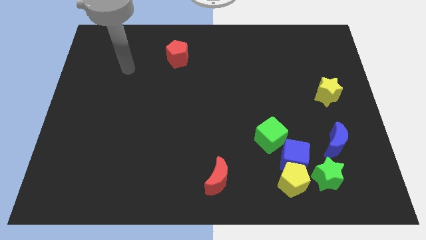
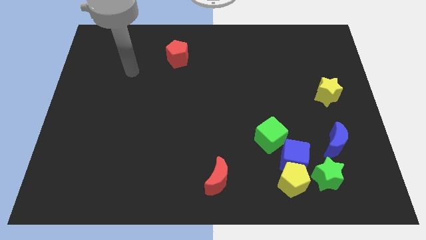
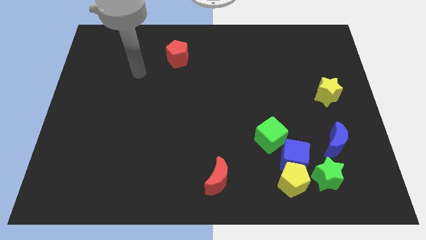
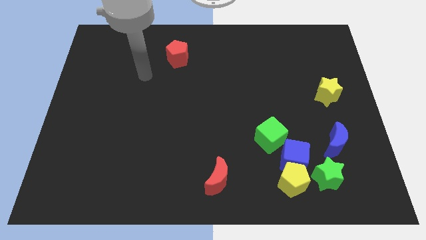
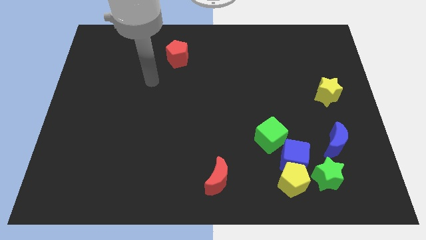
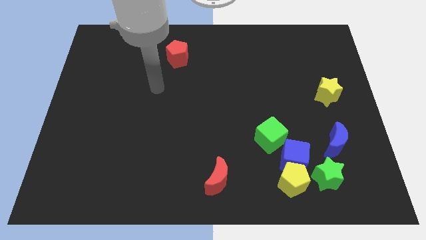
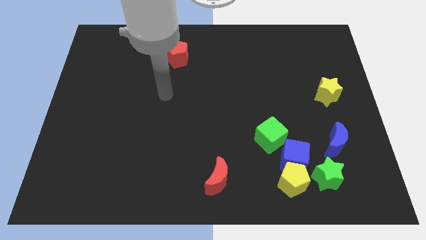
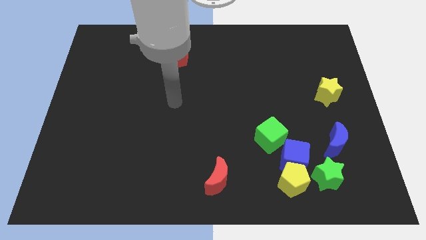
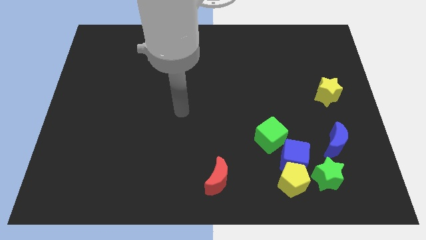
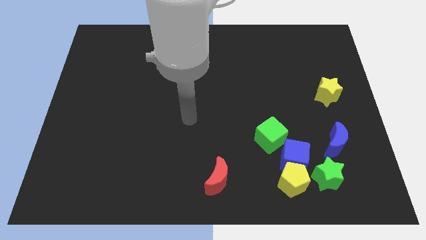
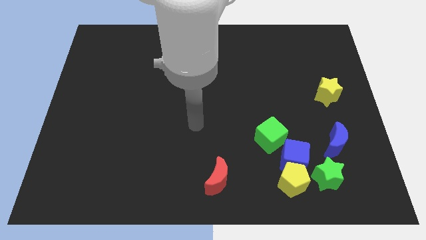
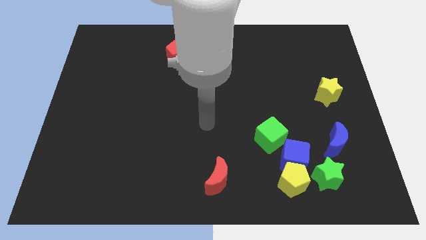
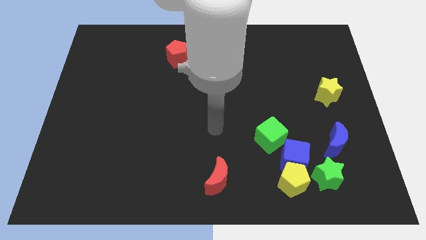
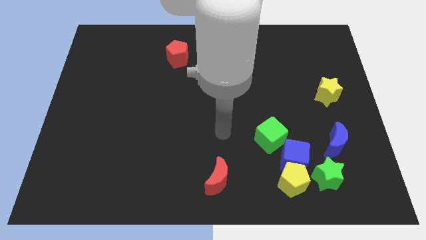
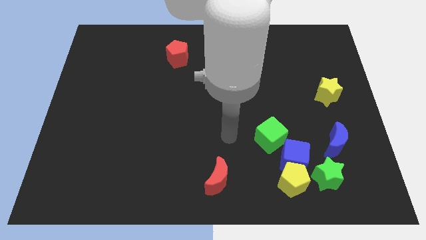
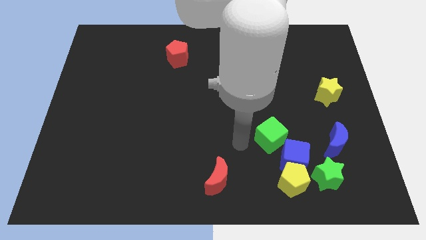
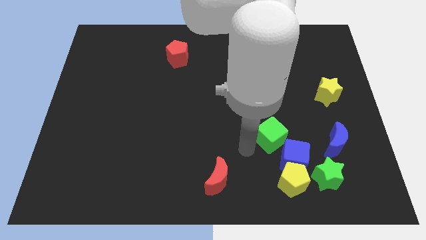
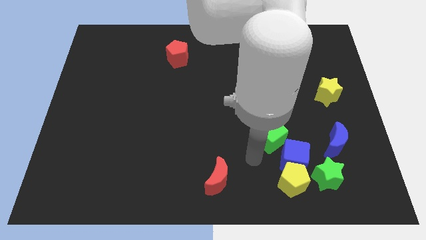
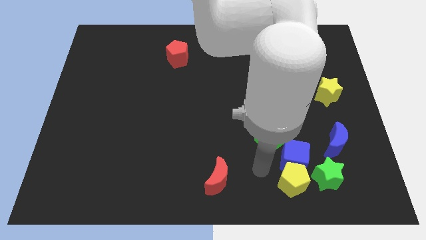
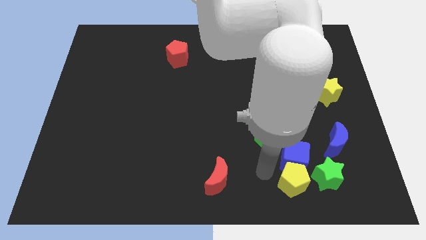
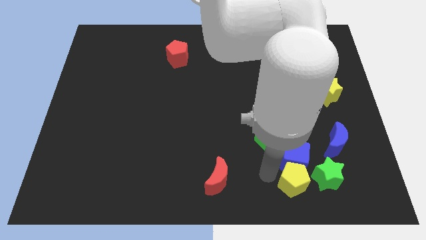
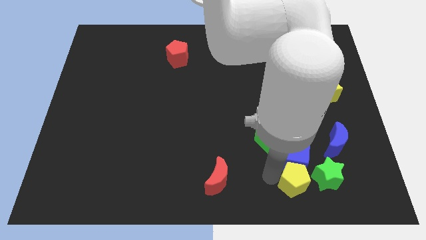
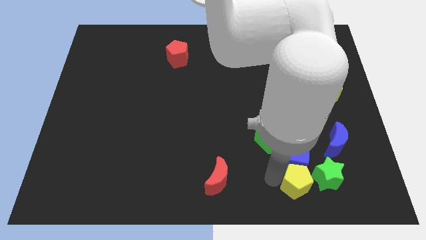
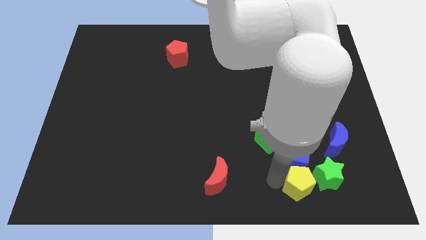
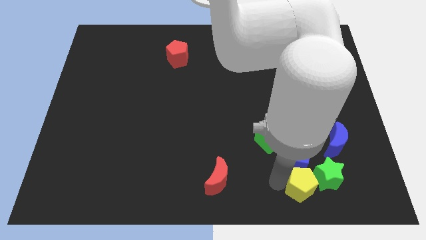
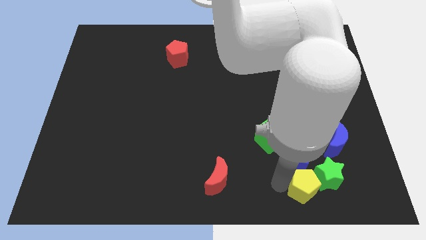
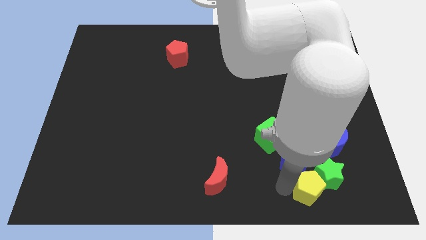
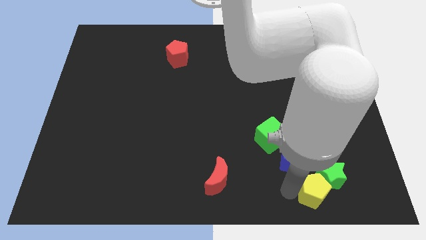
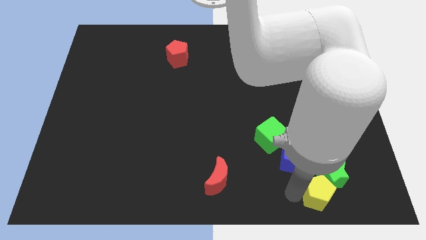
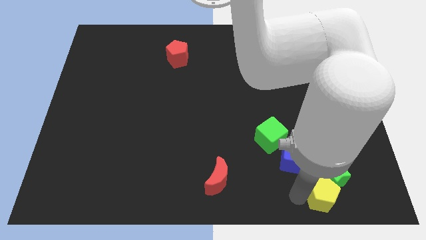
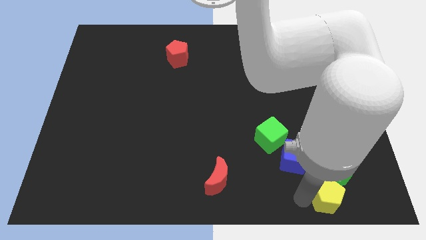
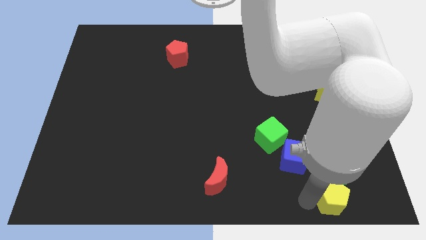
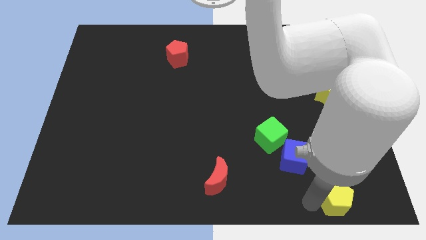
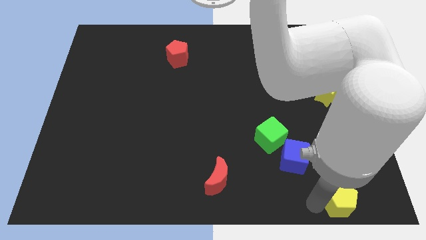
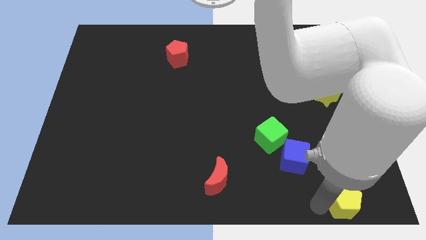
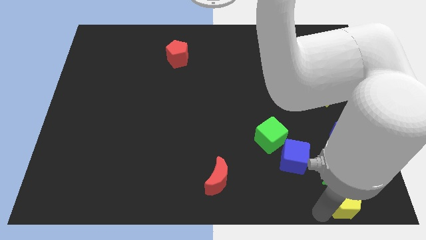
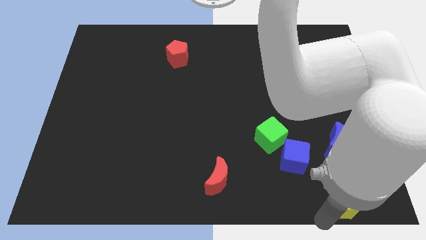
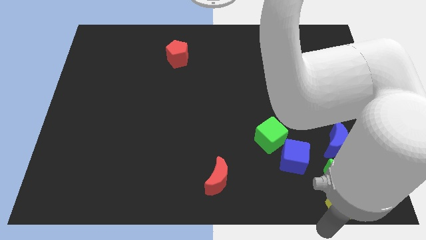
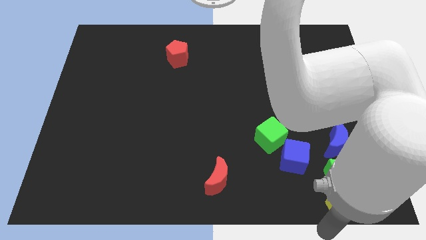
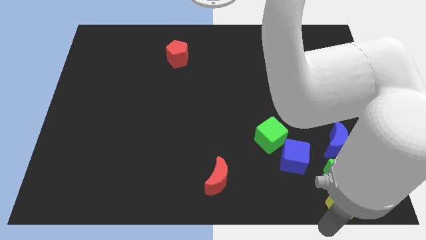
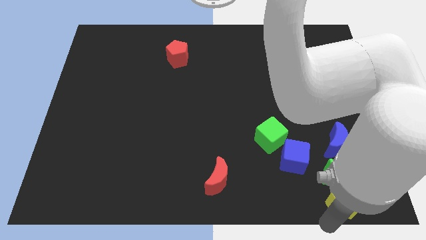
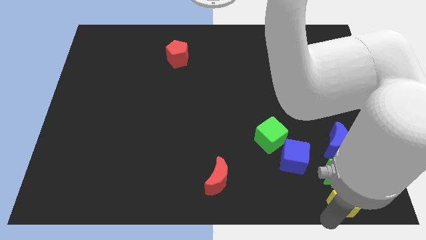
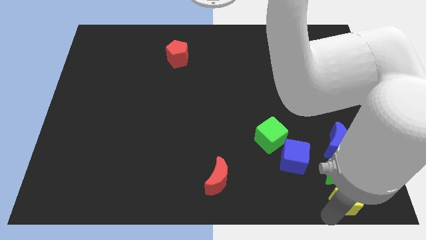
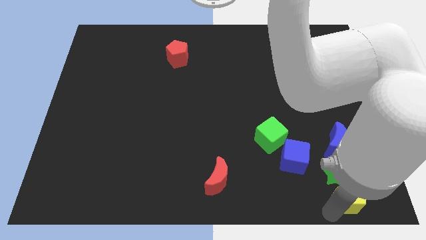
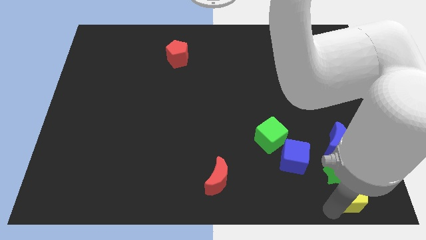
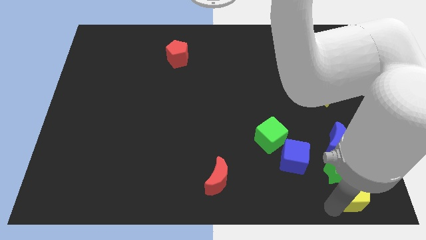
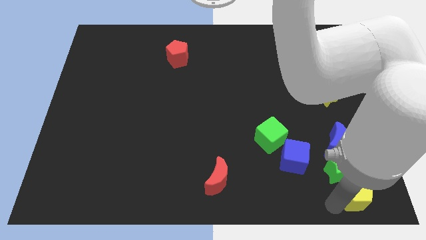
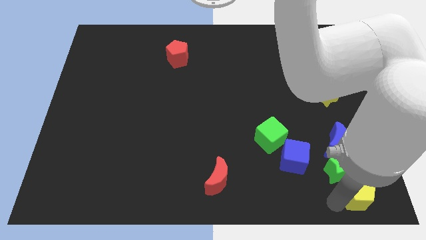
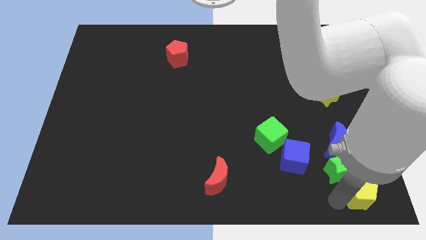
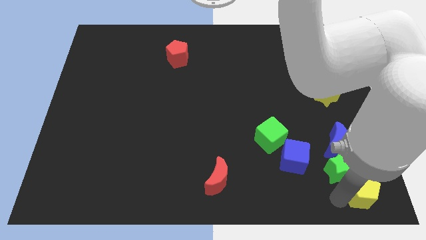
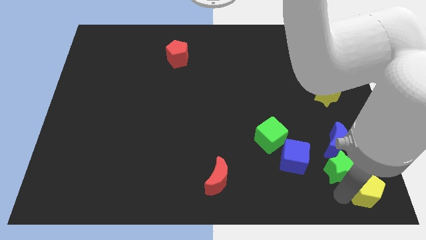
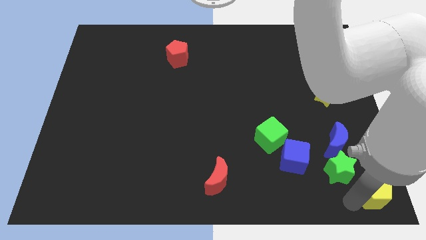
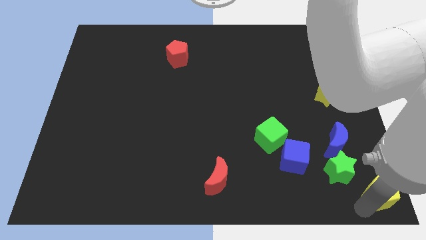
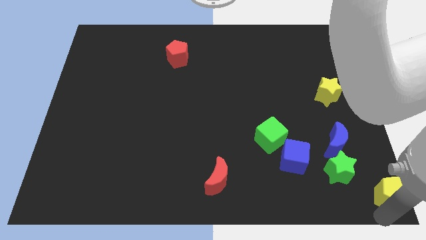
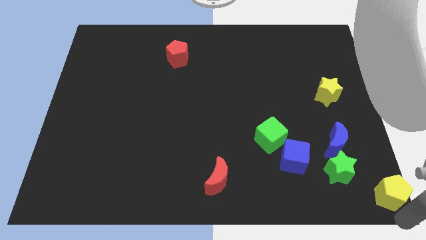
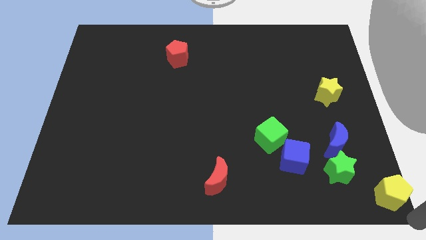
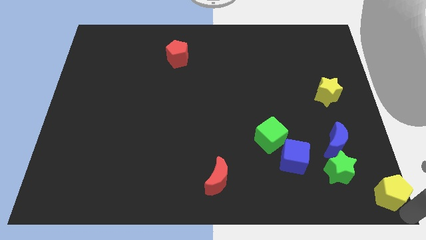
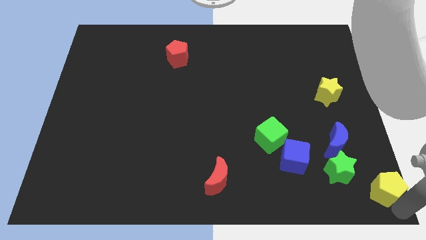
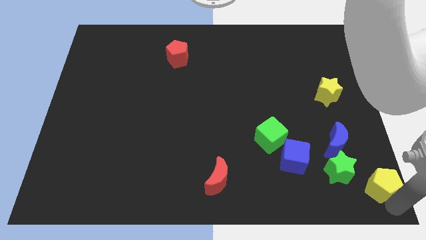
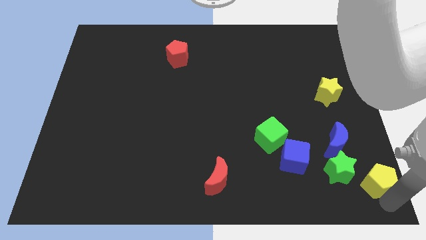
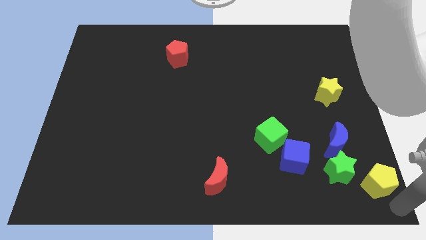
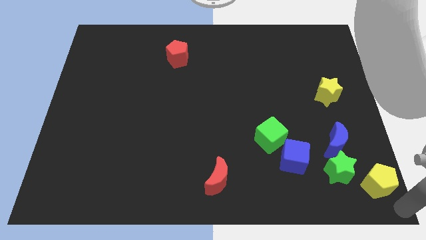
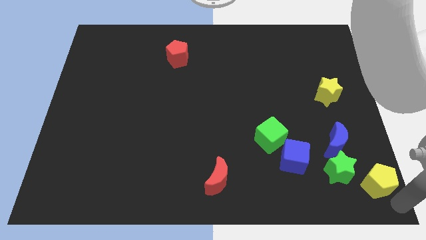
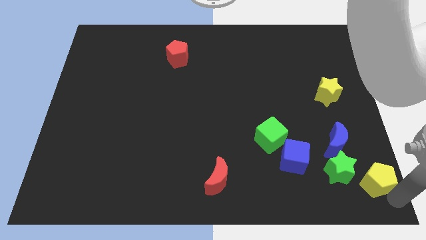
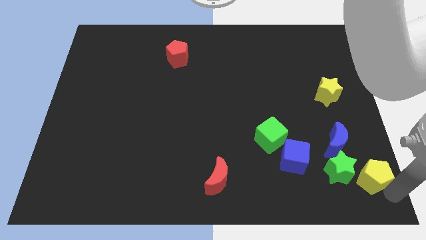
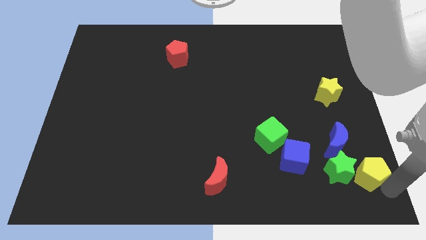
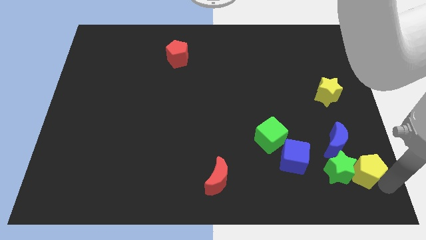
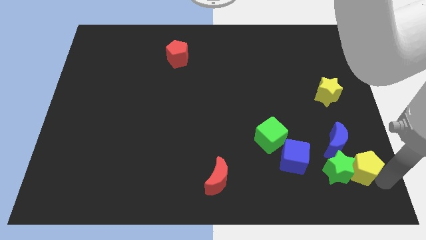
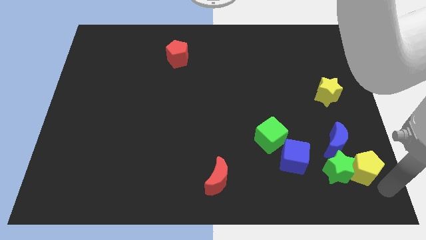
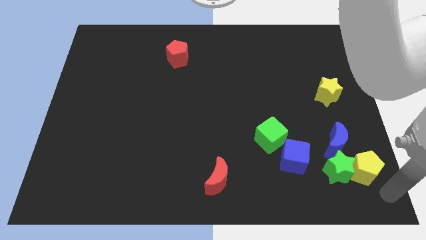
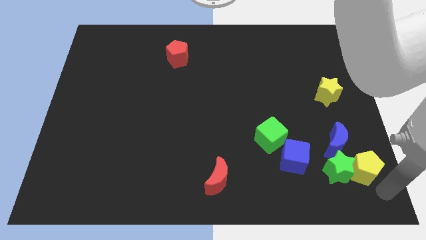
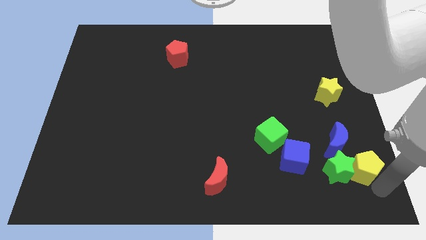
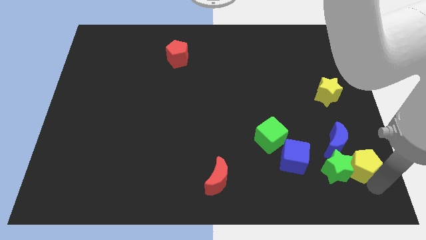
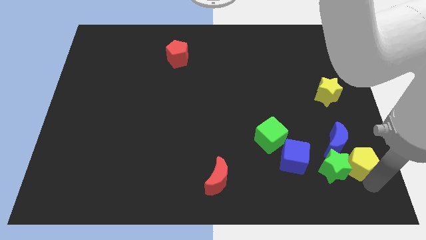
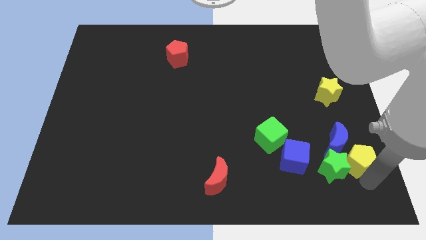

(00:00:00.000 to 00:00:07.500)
push the yellow pentagon close to the blue moon
